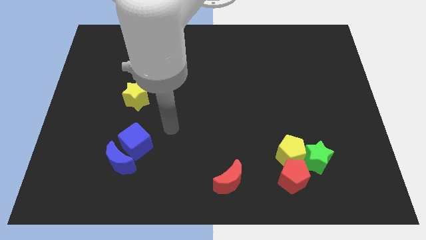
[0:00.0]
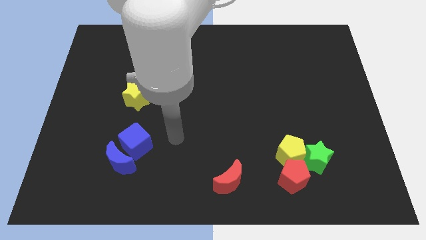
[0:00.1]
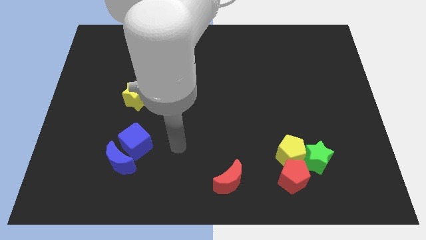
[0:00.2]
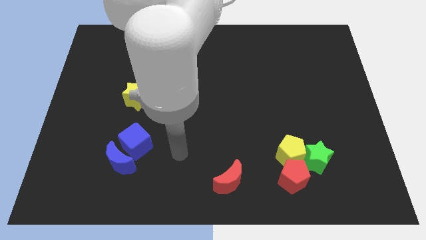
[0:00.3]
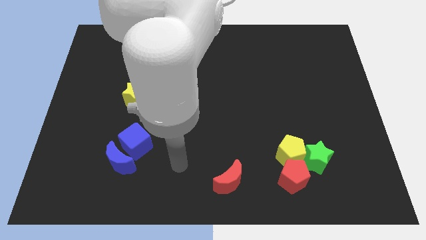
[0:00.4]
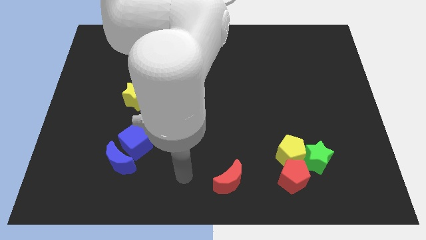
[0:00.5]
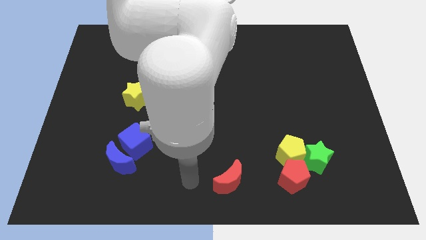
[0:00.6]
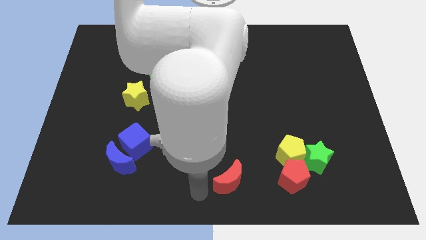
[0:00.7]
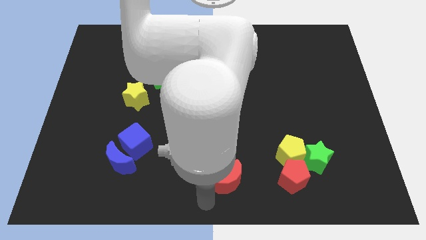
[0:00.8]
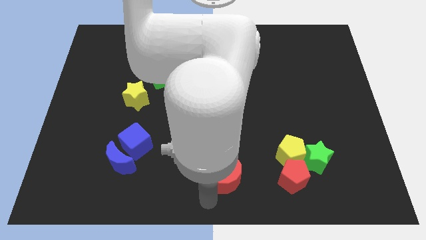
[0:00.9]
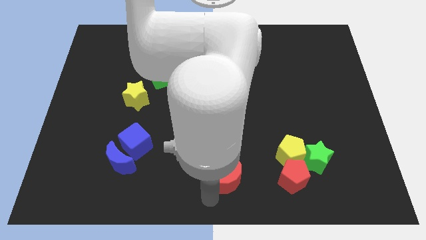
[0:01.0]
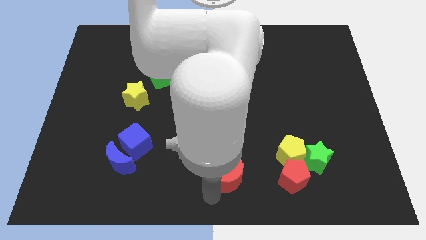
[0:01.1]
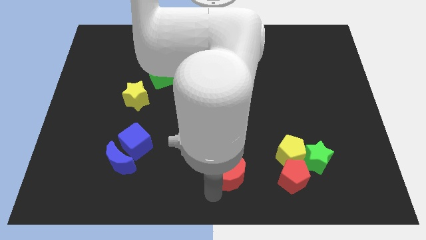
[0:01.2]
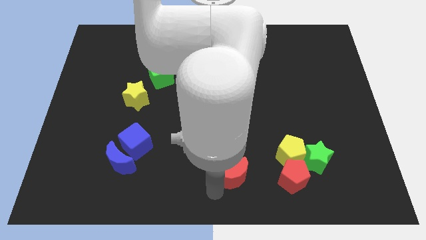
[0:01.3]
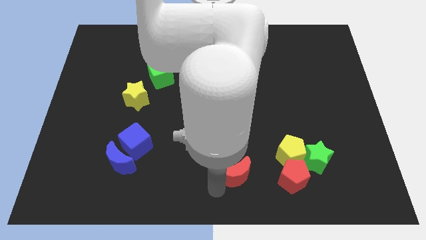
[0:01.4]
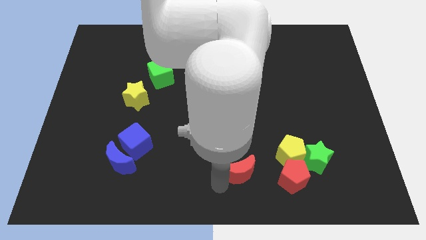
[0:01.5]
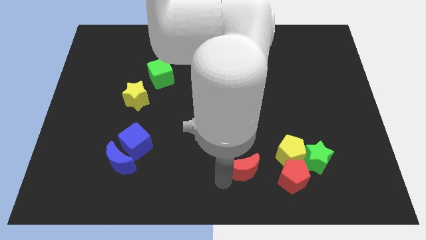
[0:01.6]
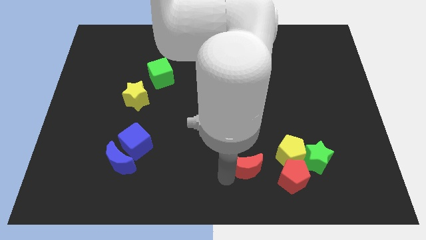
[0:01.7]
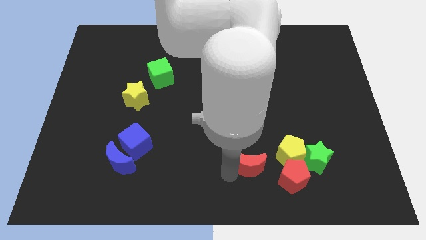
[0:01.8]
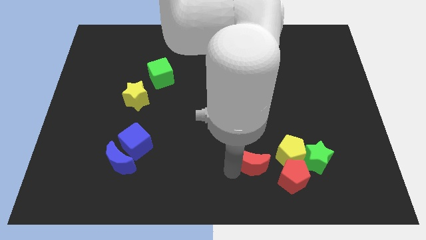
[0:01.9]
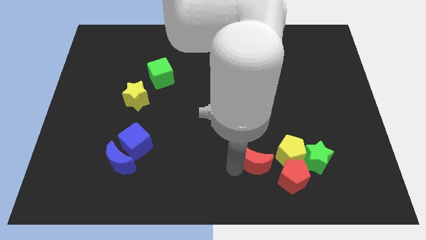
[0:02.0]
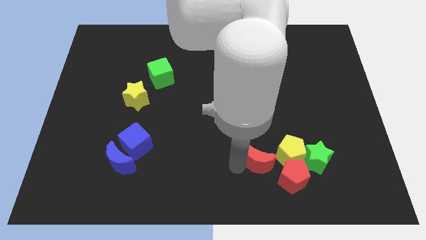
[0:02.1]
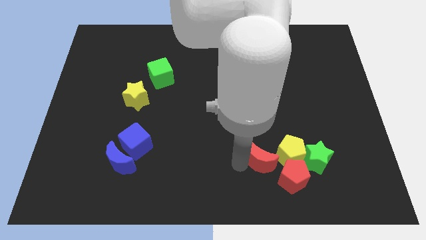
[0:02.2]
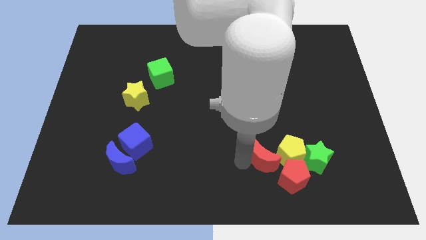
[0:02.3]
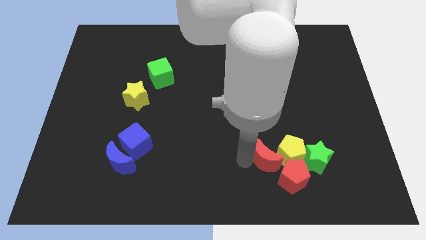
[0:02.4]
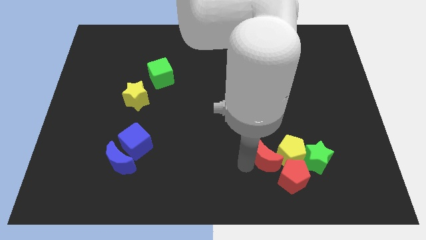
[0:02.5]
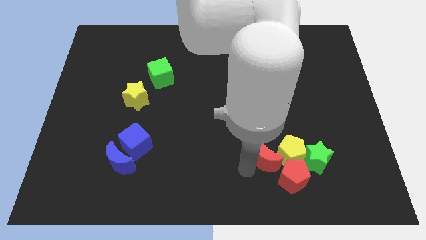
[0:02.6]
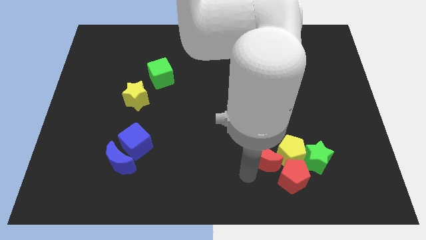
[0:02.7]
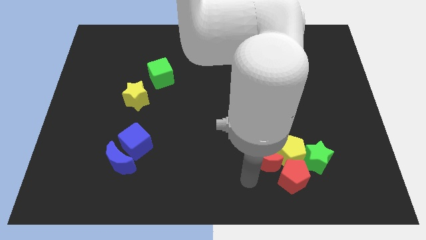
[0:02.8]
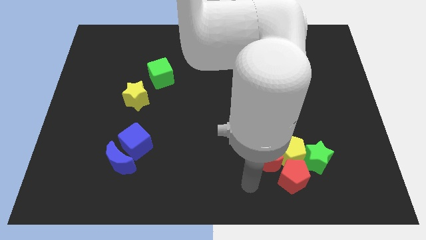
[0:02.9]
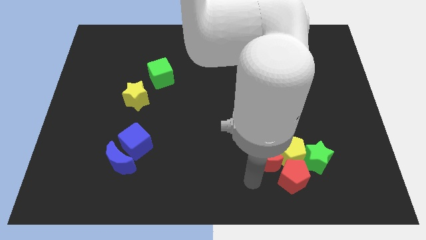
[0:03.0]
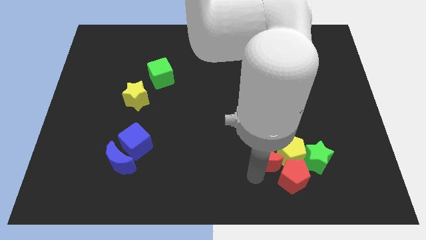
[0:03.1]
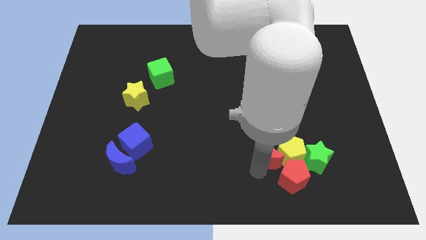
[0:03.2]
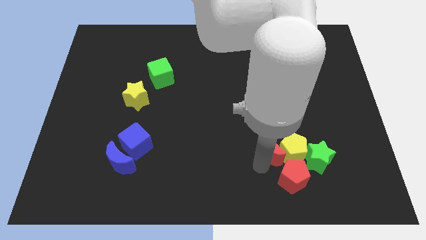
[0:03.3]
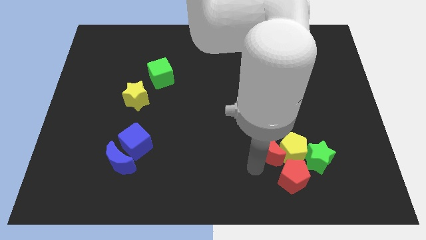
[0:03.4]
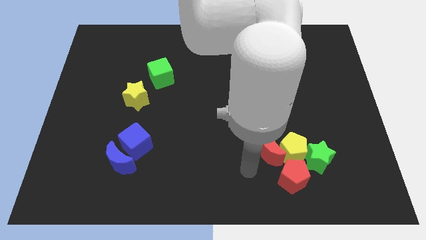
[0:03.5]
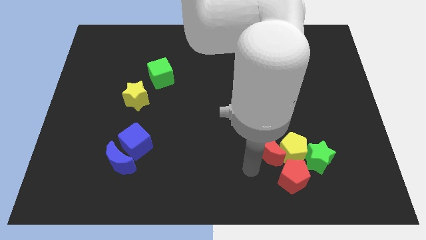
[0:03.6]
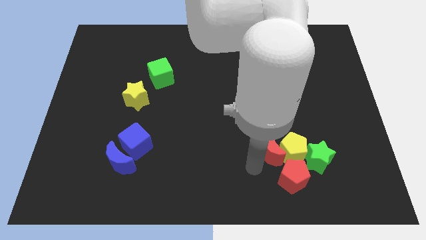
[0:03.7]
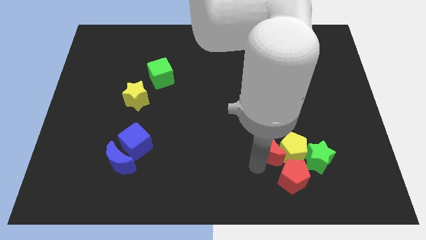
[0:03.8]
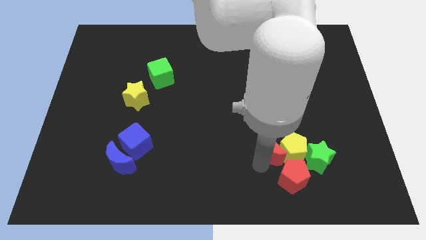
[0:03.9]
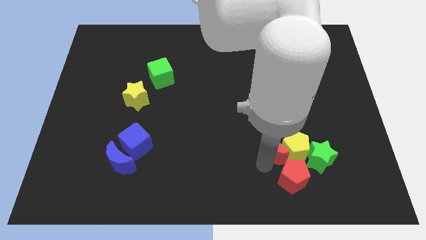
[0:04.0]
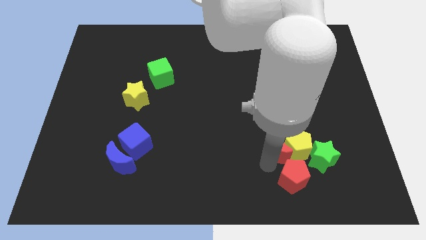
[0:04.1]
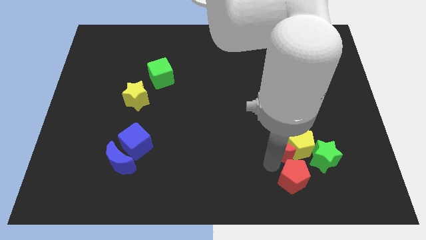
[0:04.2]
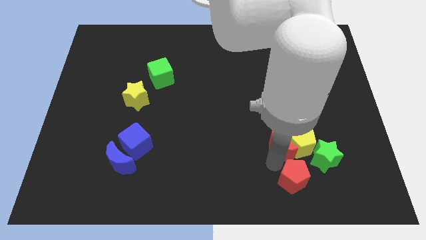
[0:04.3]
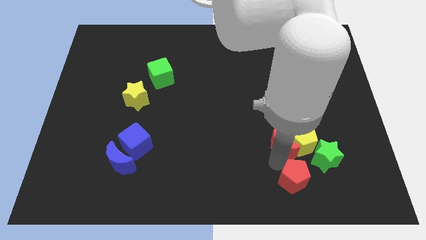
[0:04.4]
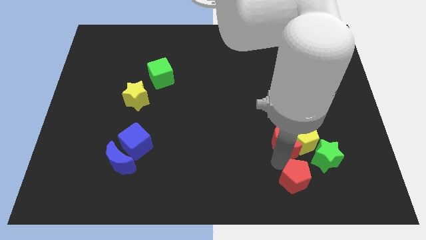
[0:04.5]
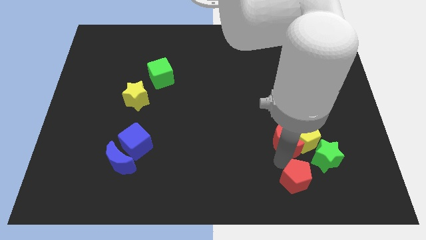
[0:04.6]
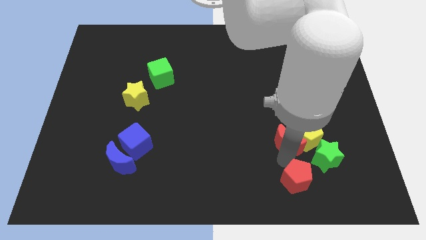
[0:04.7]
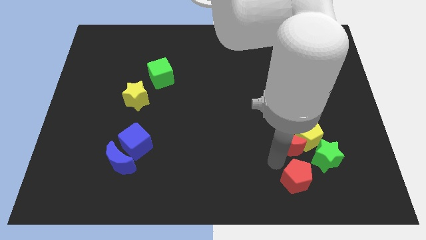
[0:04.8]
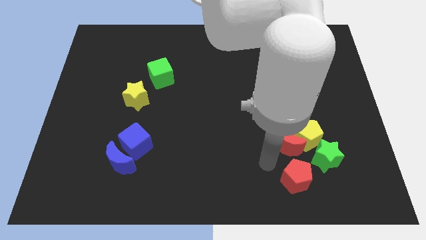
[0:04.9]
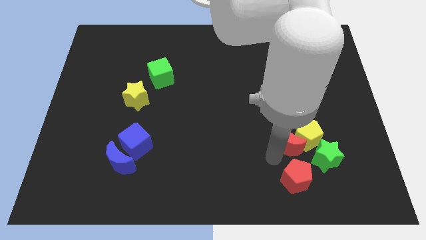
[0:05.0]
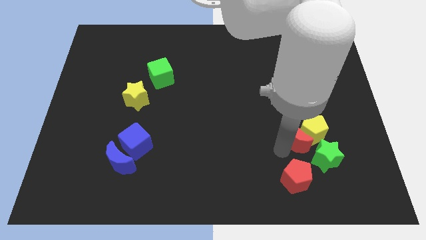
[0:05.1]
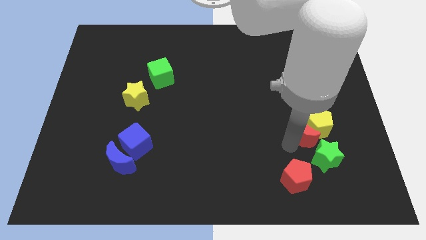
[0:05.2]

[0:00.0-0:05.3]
push the red moon to the top side of the green star

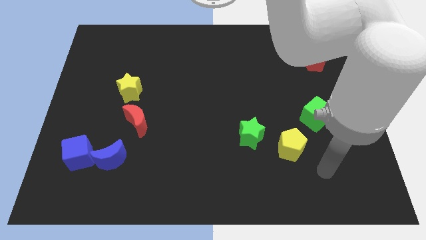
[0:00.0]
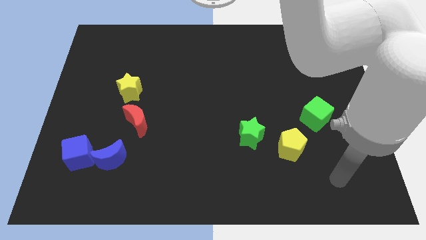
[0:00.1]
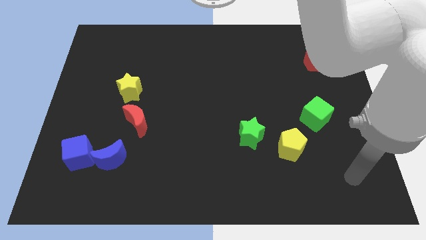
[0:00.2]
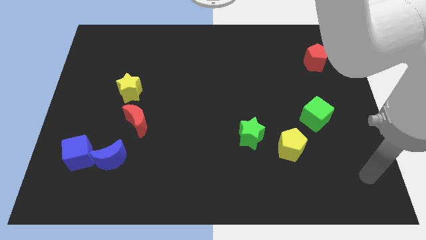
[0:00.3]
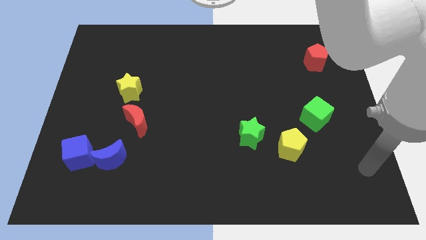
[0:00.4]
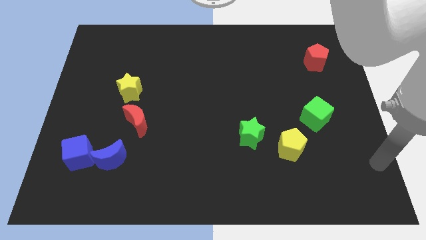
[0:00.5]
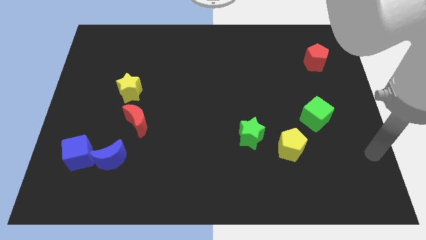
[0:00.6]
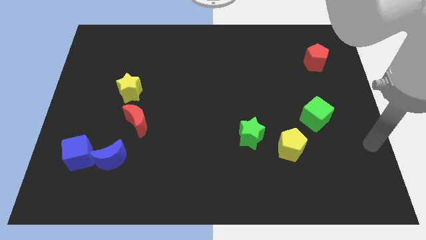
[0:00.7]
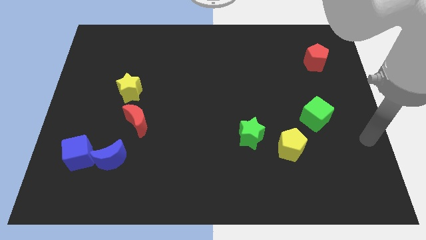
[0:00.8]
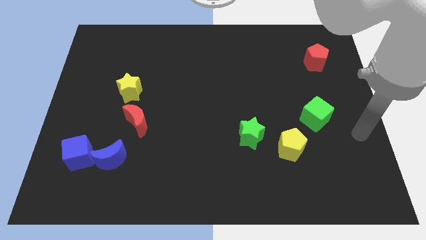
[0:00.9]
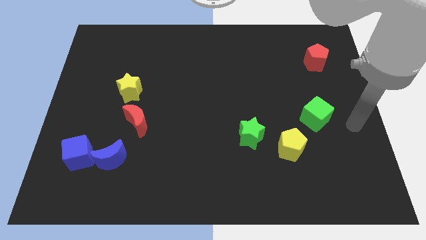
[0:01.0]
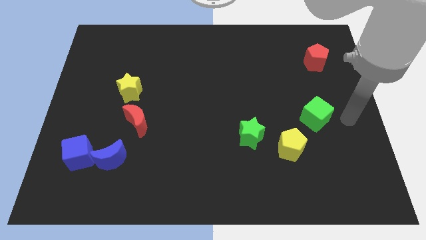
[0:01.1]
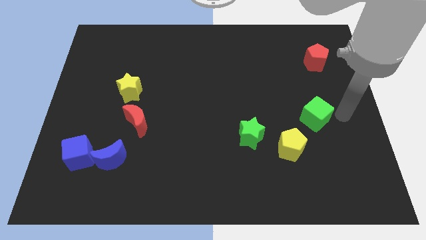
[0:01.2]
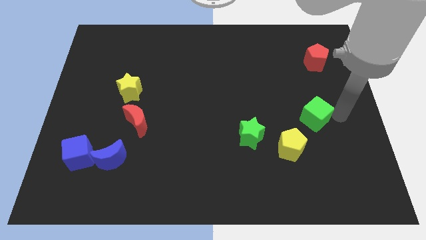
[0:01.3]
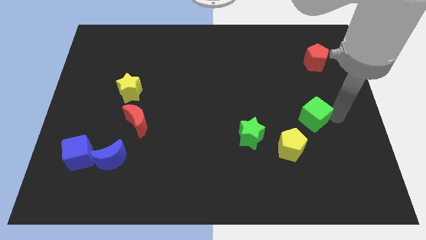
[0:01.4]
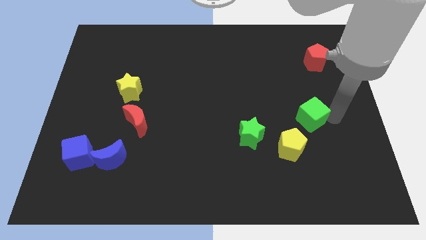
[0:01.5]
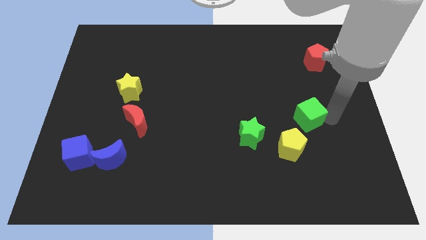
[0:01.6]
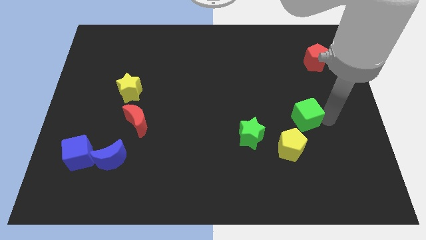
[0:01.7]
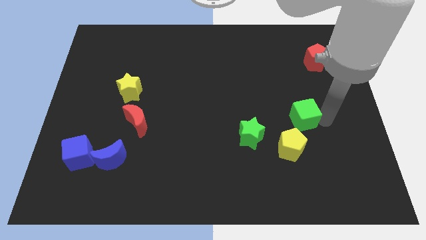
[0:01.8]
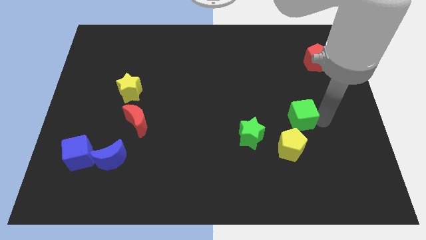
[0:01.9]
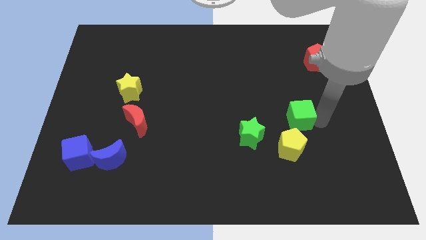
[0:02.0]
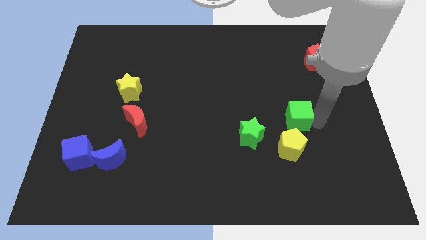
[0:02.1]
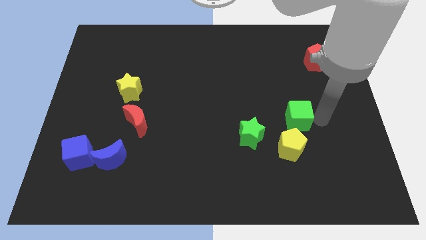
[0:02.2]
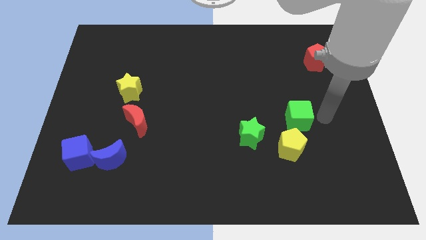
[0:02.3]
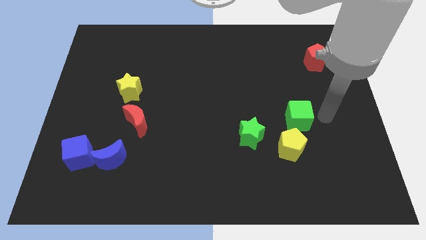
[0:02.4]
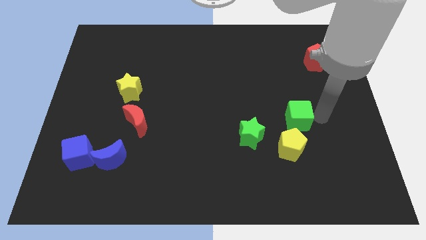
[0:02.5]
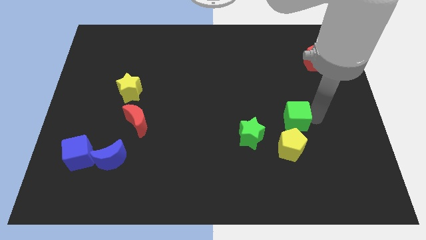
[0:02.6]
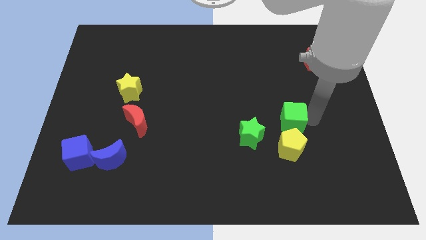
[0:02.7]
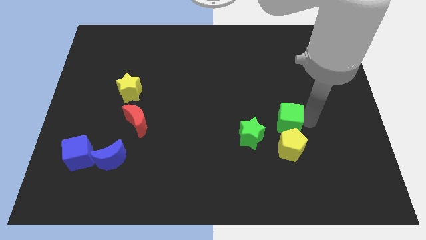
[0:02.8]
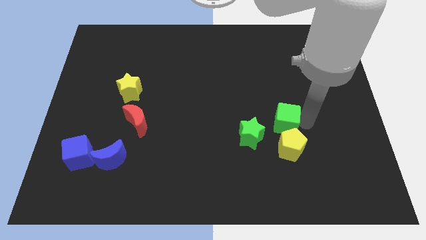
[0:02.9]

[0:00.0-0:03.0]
slide the green cube diagonally up and to the left of the yellow pentagon
